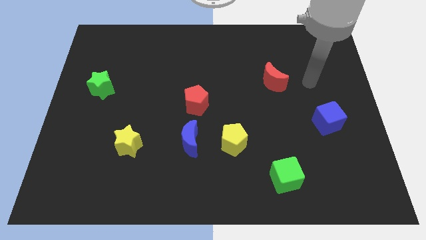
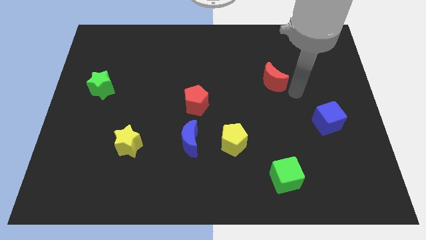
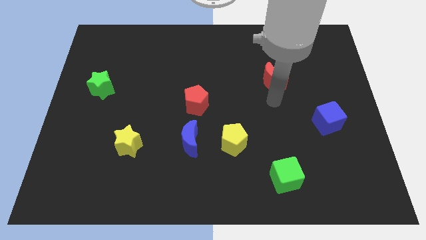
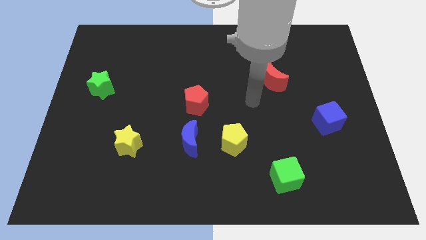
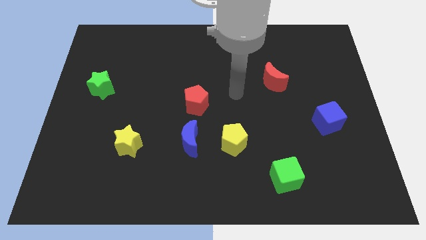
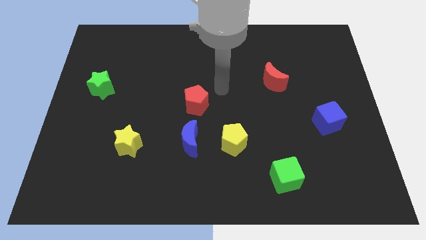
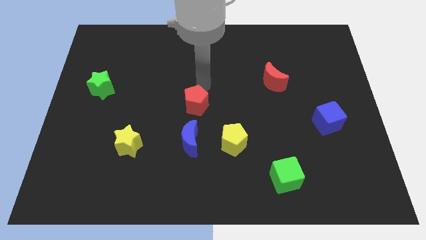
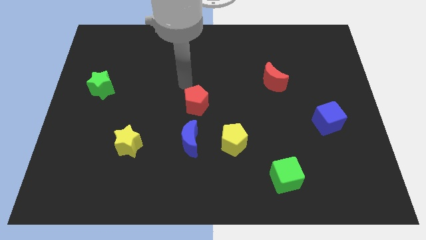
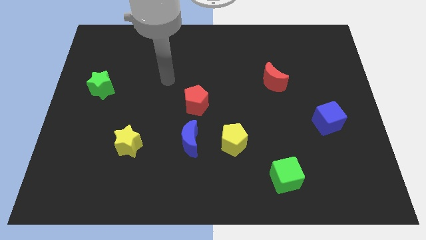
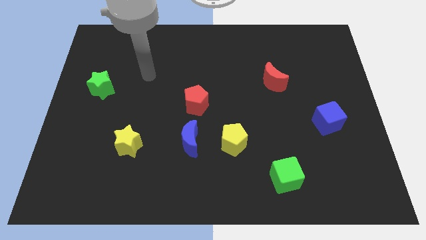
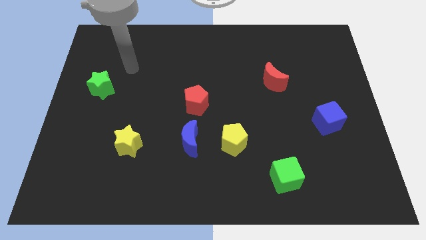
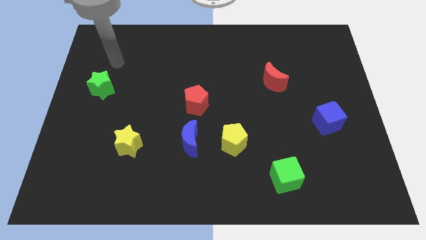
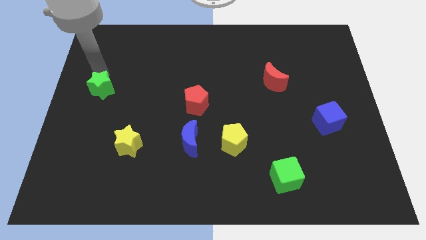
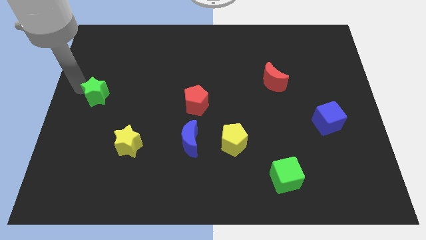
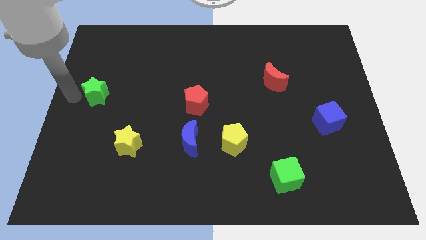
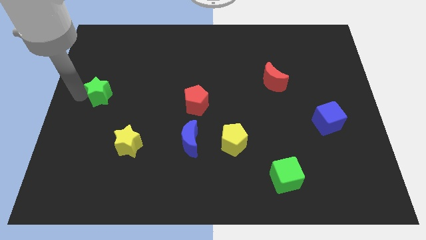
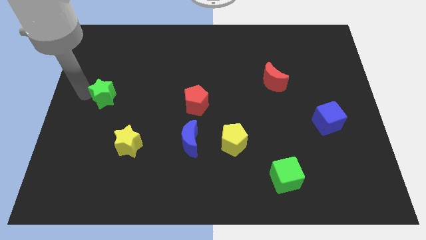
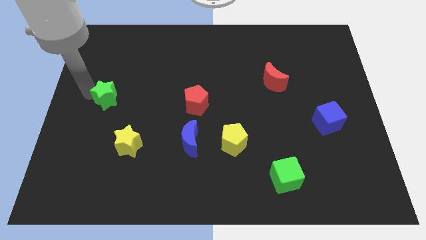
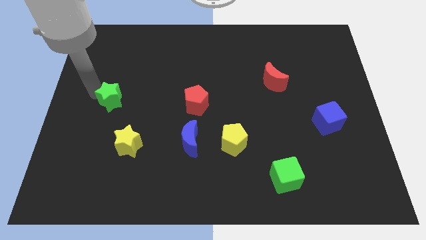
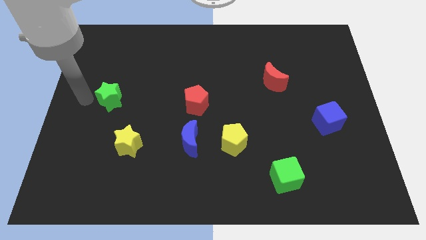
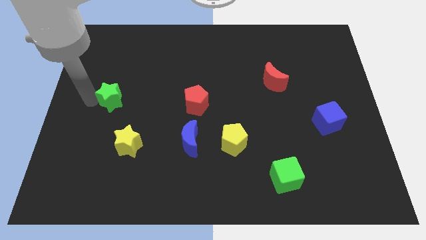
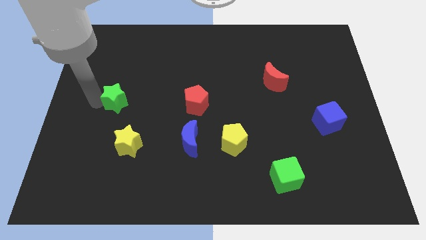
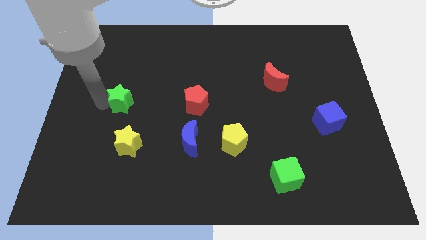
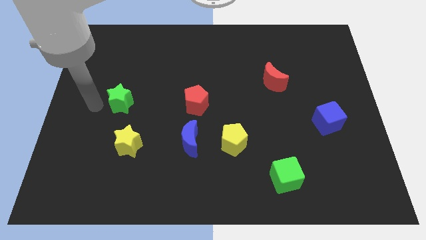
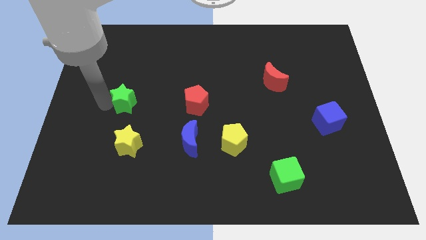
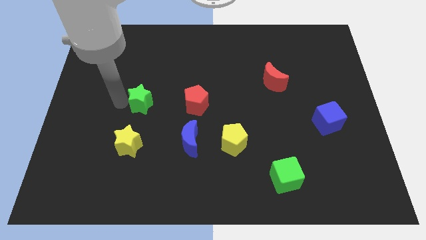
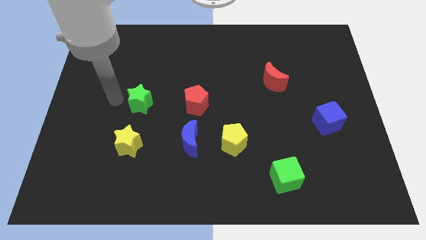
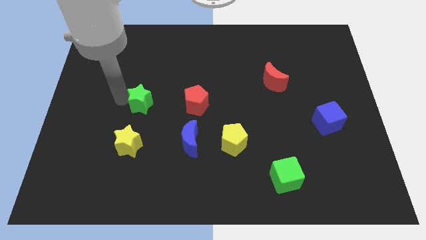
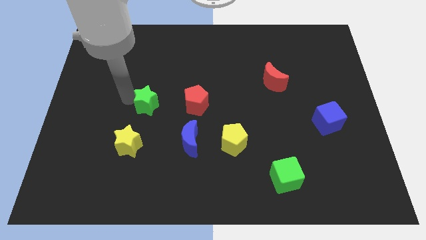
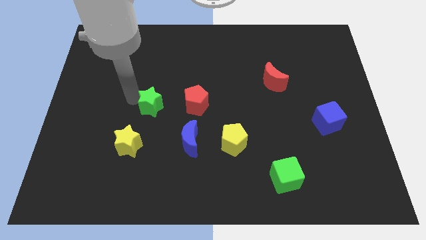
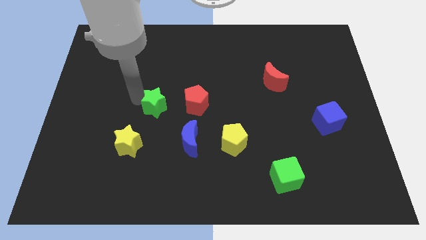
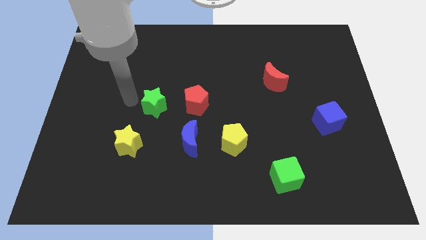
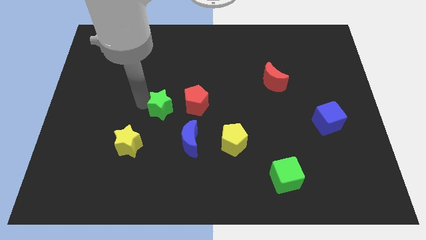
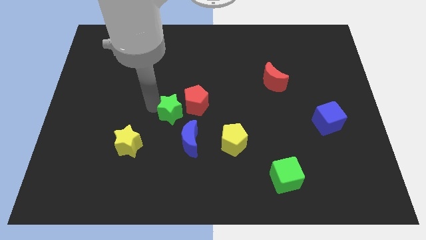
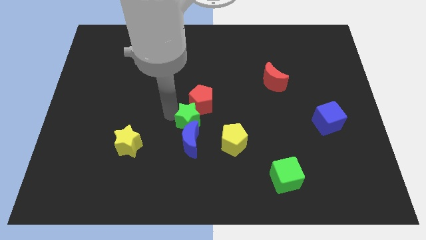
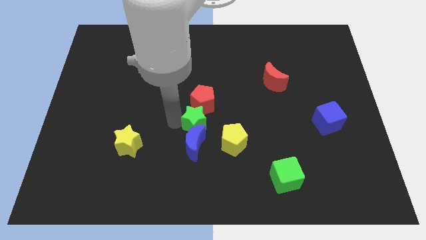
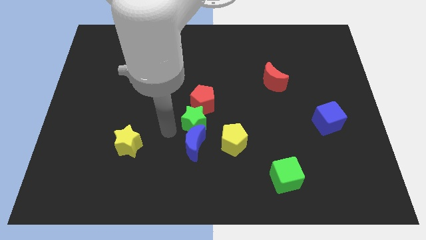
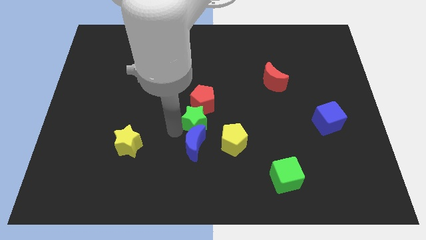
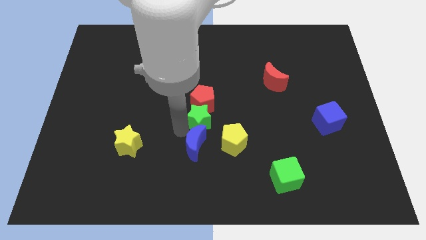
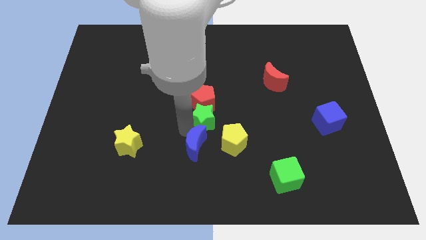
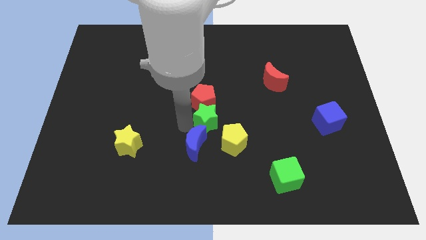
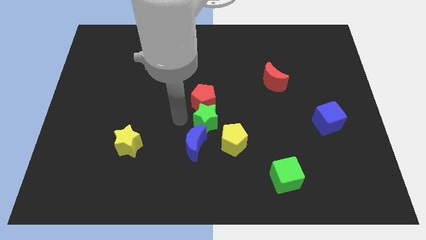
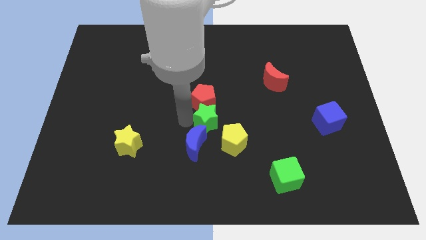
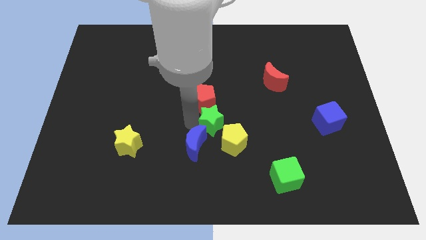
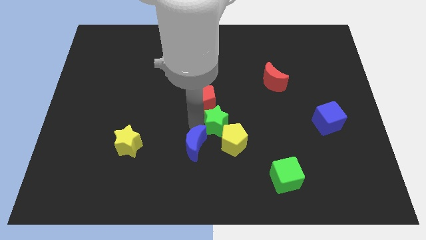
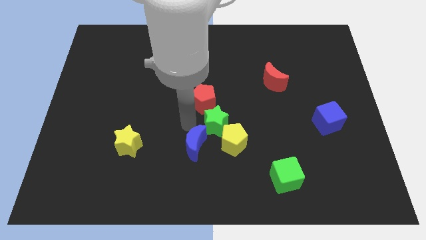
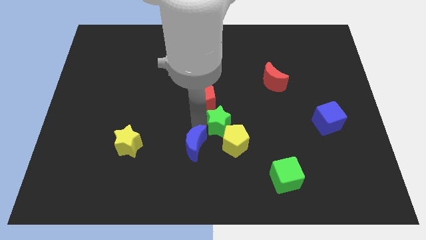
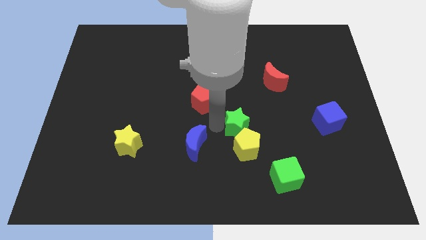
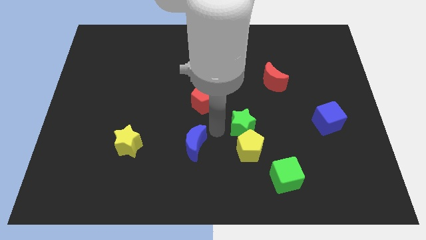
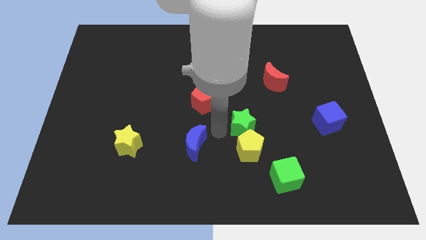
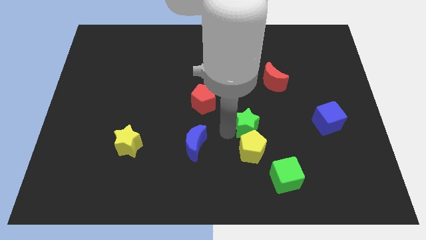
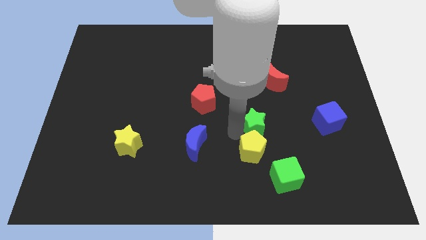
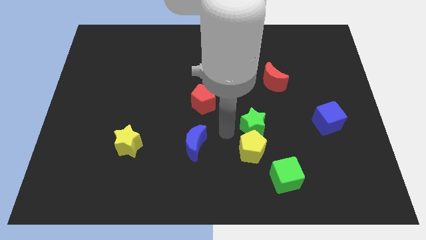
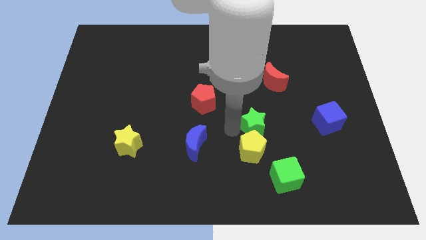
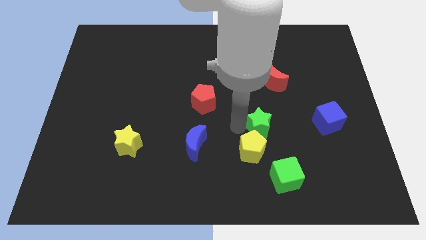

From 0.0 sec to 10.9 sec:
move the green star left of the blue cube

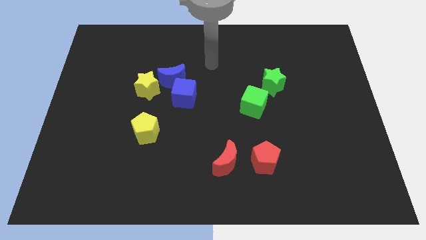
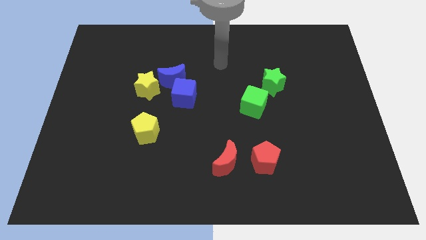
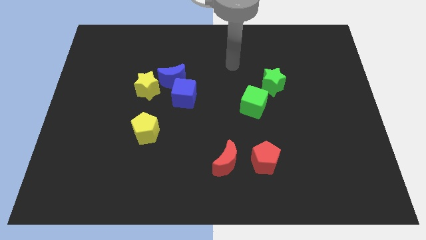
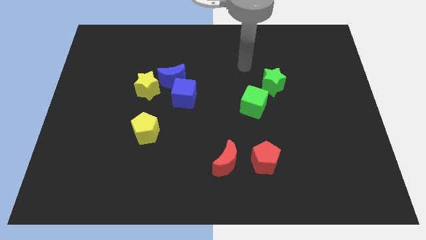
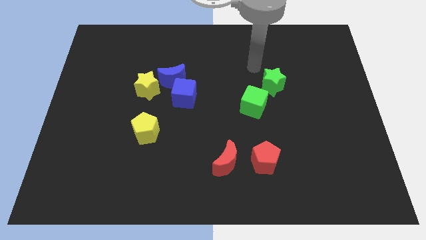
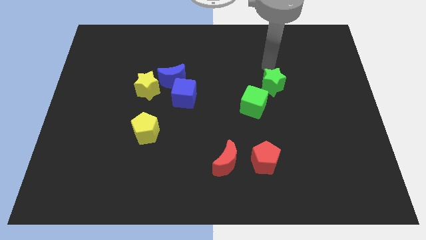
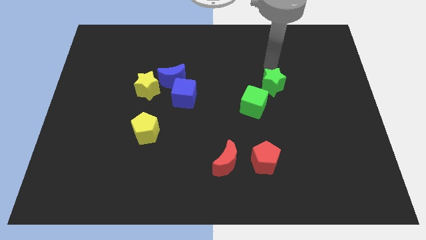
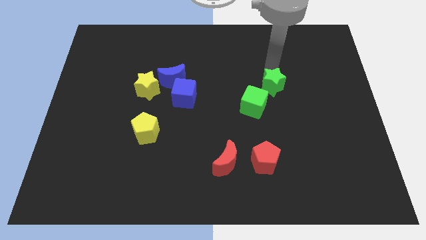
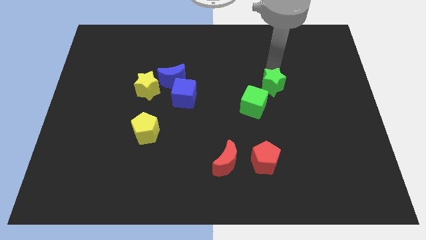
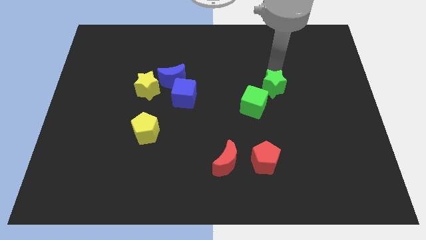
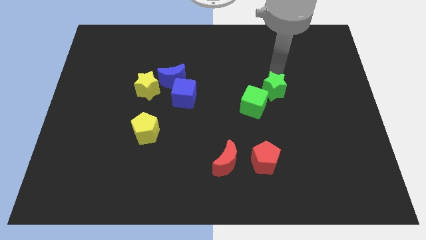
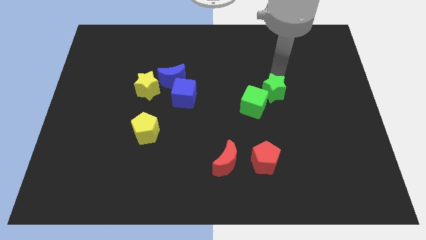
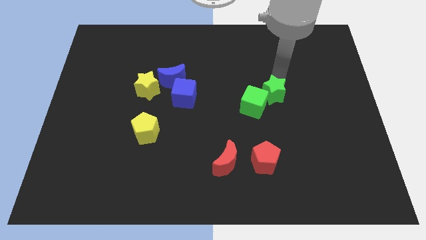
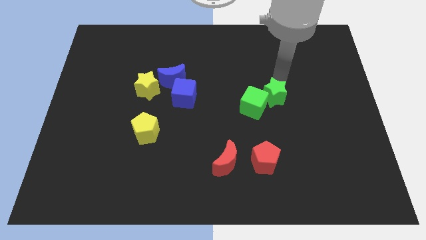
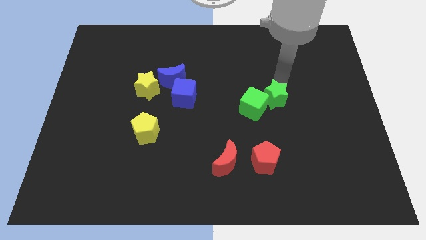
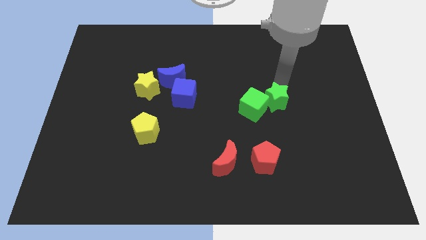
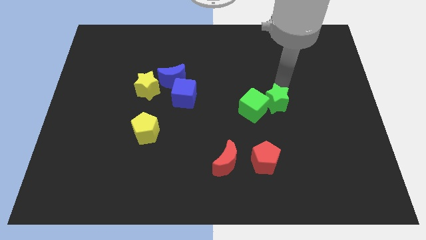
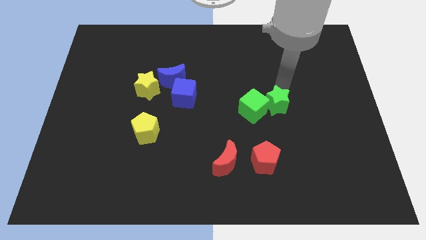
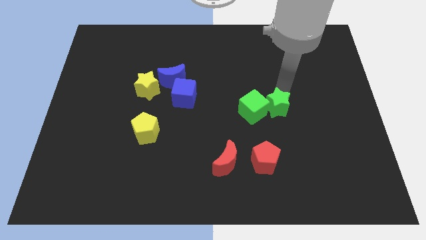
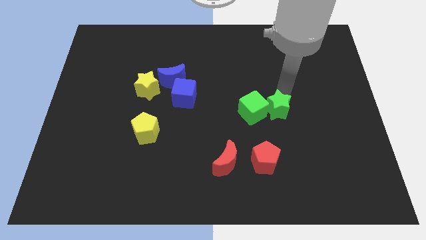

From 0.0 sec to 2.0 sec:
push the green star to the top side of the red pentagon
